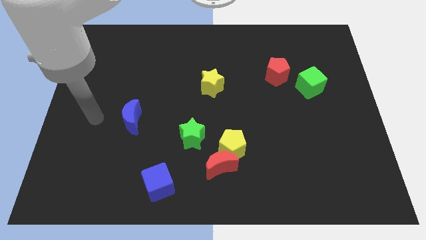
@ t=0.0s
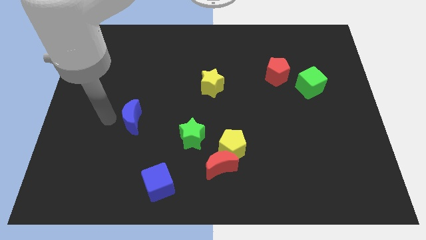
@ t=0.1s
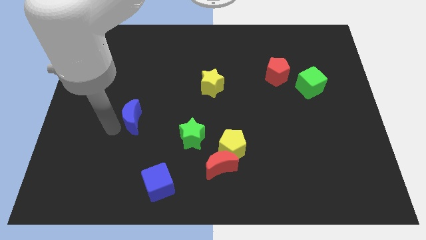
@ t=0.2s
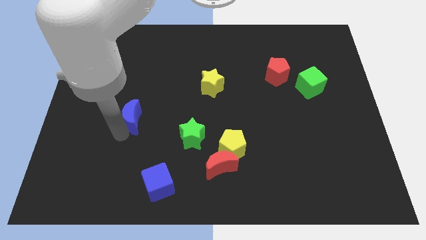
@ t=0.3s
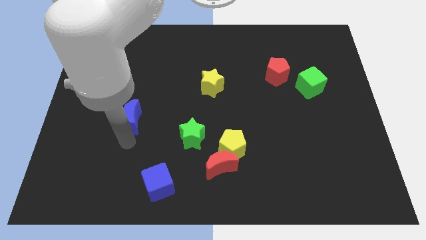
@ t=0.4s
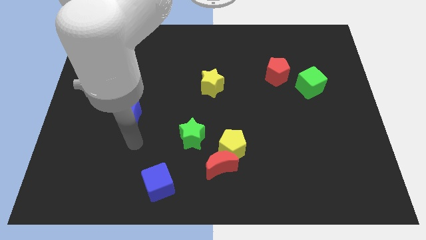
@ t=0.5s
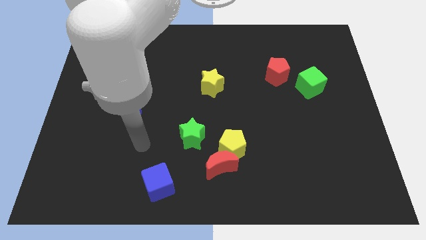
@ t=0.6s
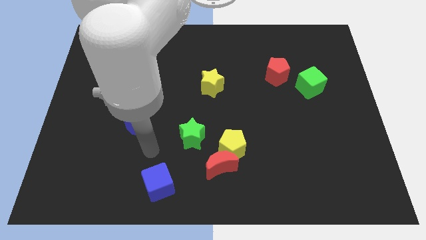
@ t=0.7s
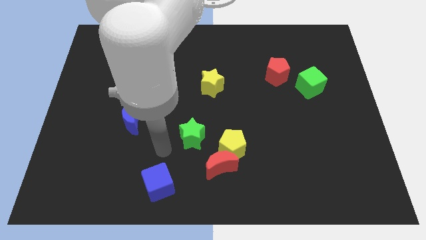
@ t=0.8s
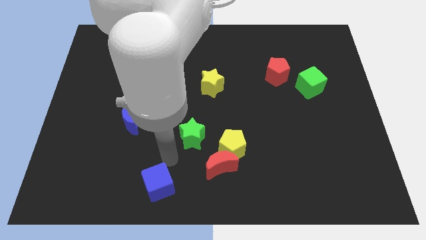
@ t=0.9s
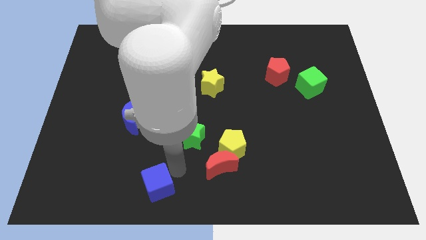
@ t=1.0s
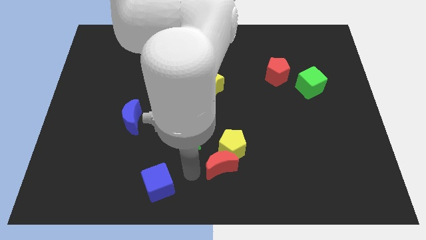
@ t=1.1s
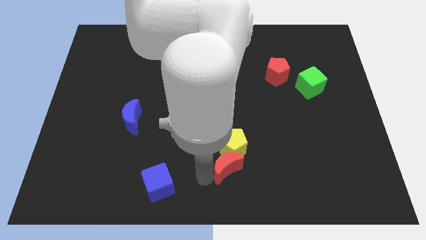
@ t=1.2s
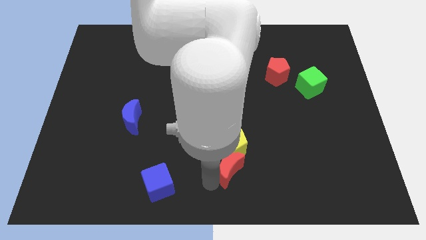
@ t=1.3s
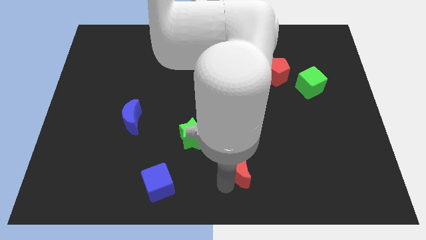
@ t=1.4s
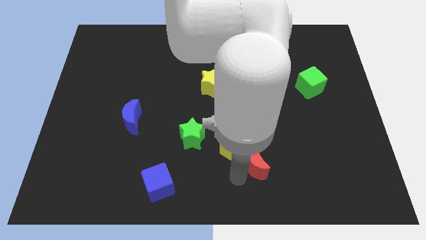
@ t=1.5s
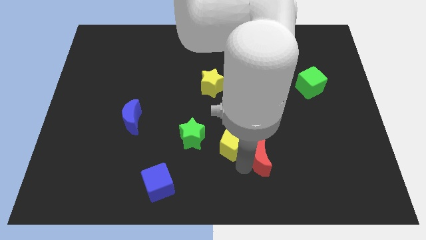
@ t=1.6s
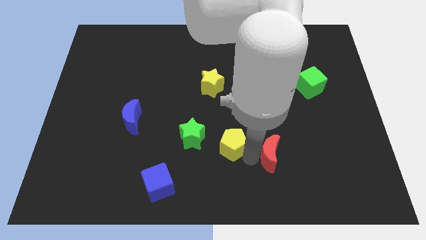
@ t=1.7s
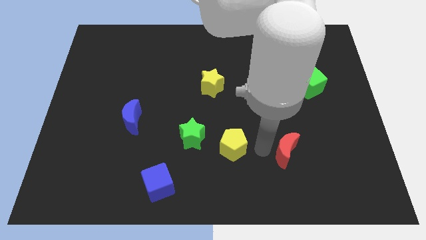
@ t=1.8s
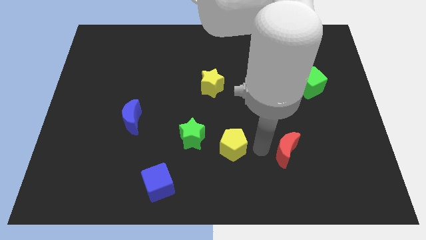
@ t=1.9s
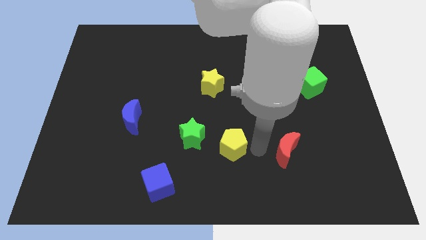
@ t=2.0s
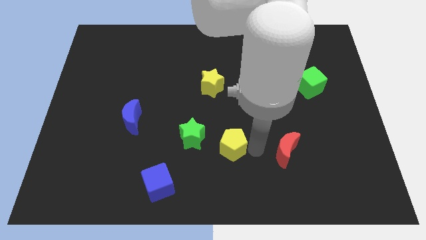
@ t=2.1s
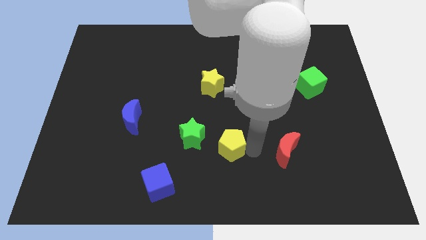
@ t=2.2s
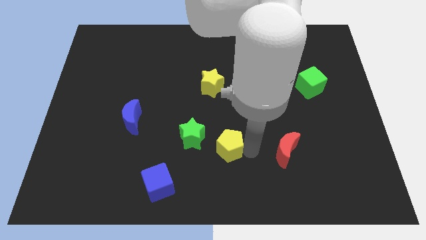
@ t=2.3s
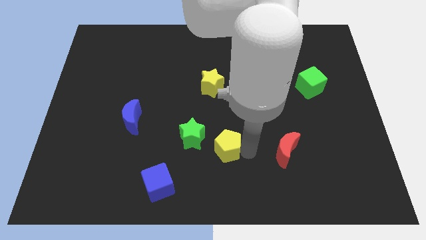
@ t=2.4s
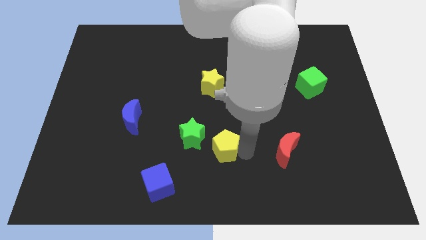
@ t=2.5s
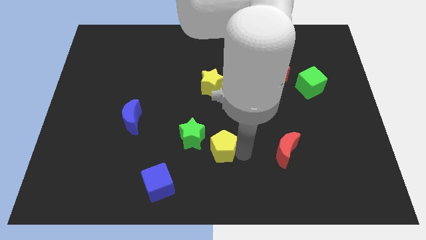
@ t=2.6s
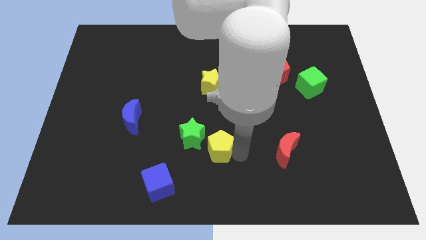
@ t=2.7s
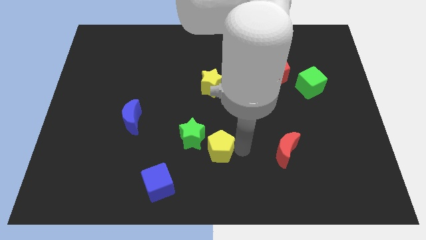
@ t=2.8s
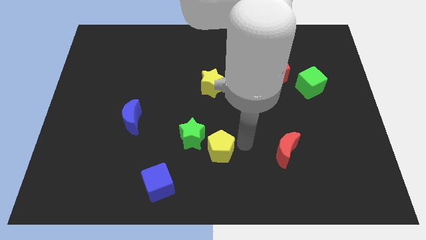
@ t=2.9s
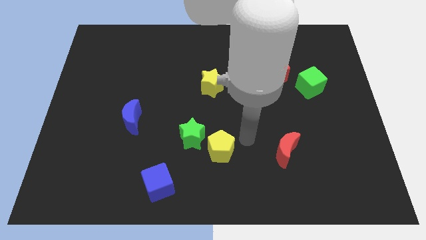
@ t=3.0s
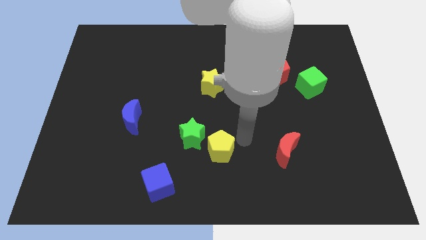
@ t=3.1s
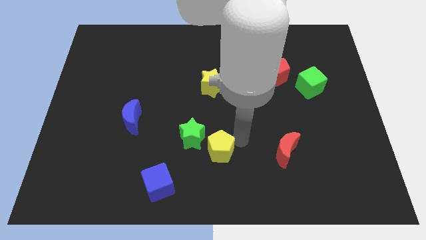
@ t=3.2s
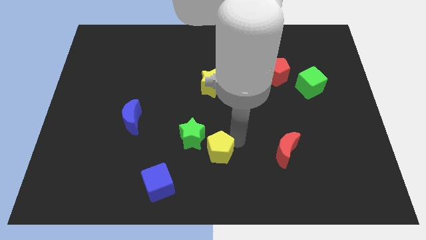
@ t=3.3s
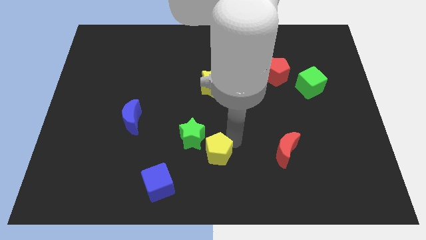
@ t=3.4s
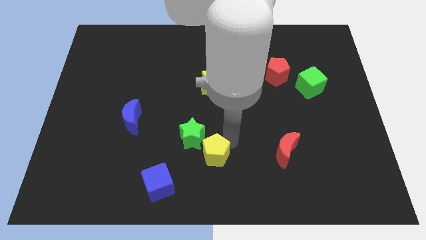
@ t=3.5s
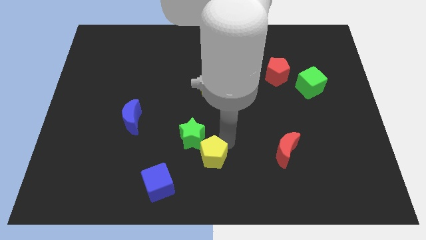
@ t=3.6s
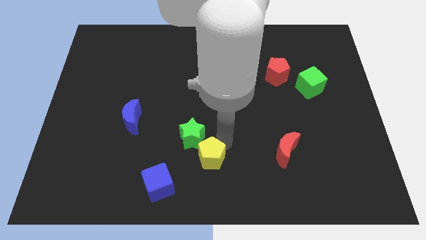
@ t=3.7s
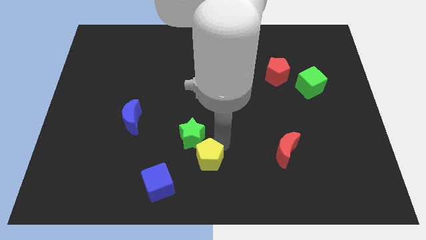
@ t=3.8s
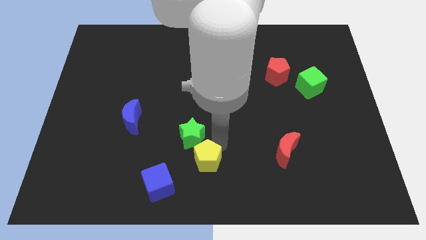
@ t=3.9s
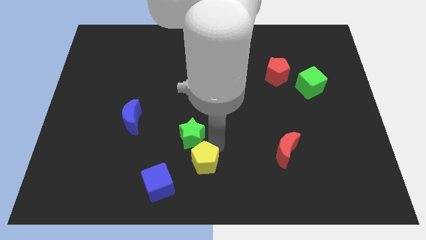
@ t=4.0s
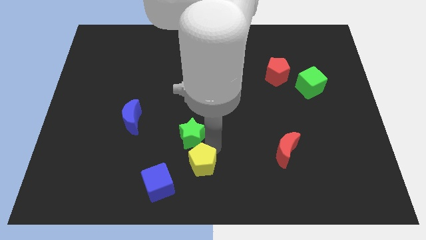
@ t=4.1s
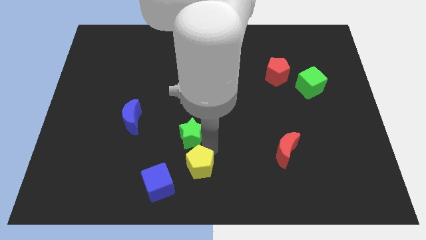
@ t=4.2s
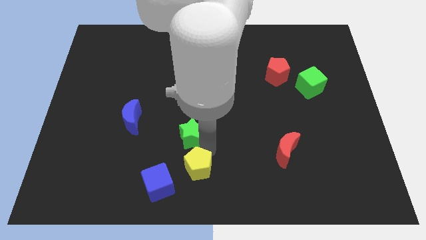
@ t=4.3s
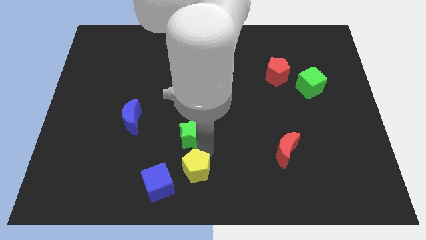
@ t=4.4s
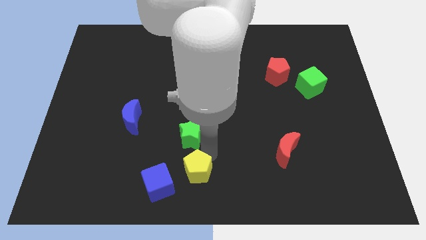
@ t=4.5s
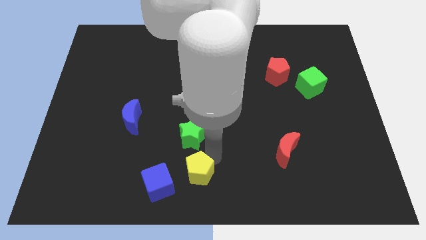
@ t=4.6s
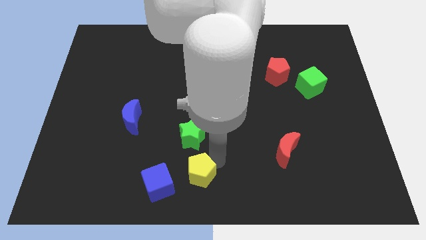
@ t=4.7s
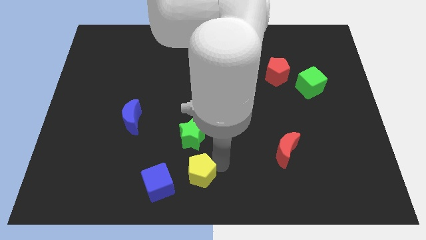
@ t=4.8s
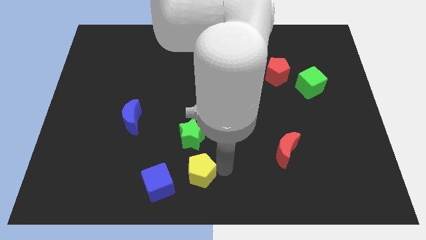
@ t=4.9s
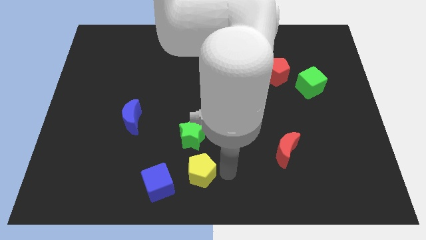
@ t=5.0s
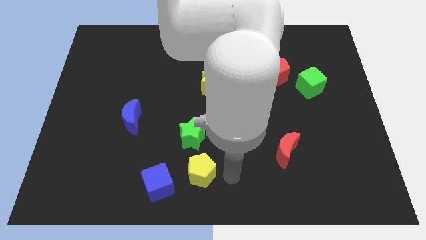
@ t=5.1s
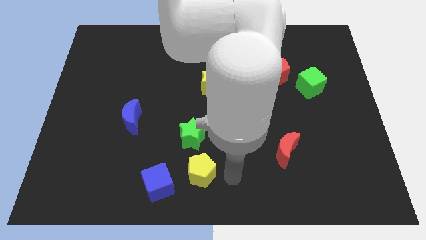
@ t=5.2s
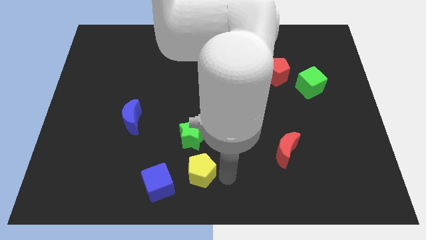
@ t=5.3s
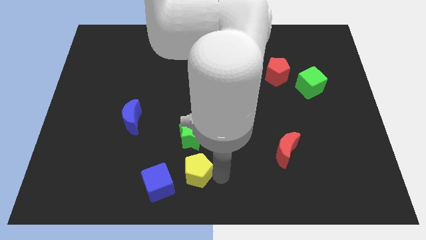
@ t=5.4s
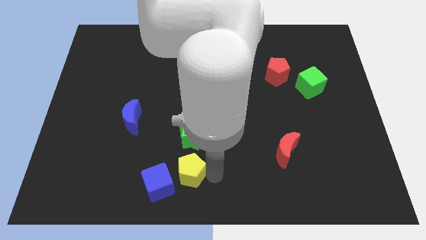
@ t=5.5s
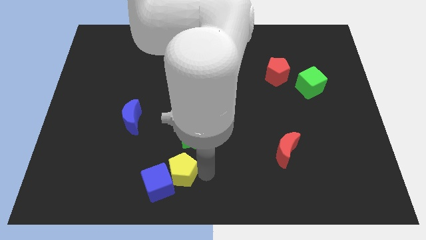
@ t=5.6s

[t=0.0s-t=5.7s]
push the yellow pentagon next to the blue cube

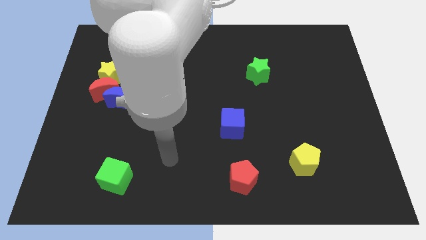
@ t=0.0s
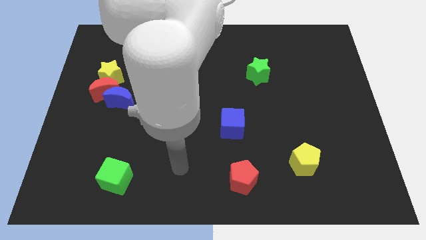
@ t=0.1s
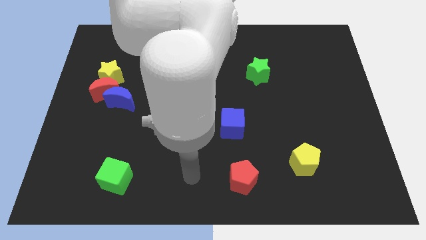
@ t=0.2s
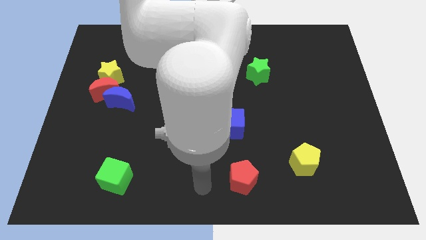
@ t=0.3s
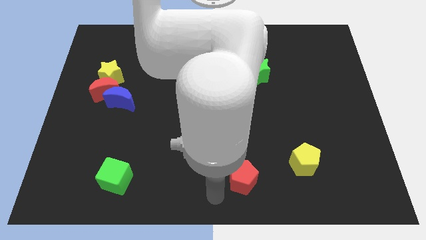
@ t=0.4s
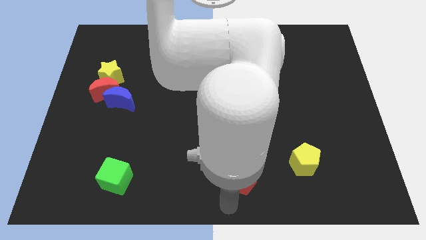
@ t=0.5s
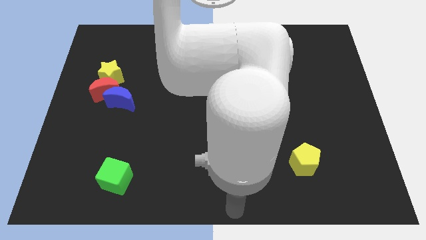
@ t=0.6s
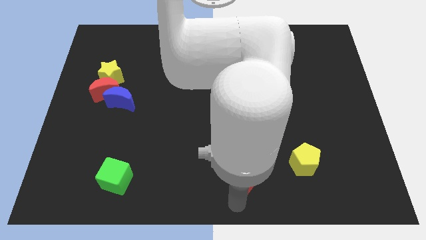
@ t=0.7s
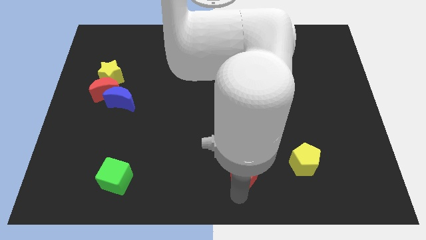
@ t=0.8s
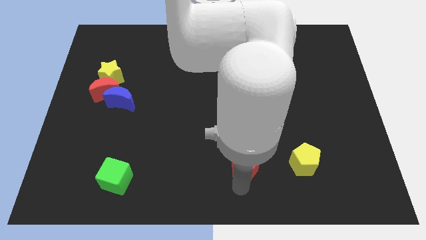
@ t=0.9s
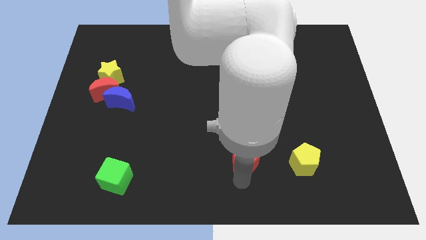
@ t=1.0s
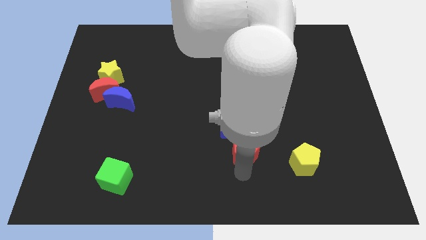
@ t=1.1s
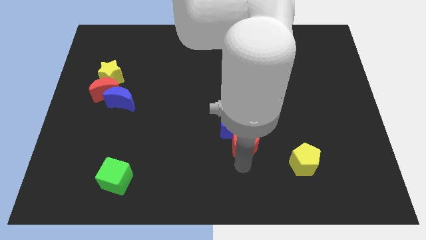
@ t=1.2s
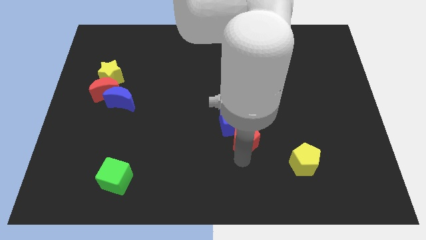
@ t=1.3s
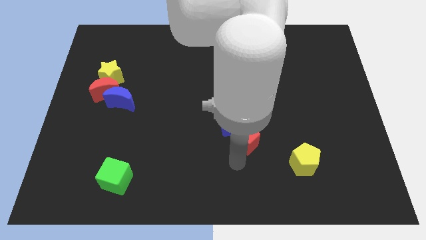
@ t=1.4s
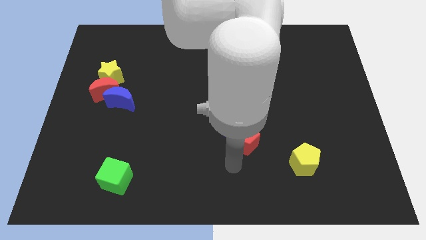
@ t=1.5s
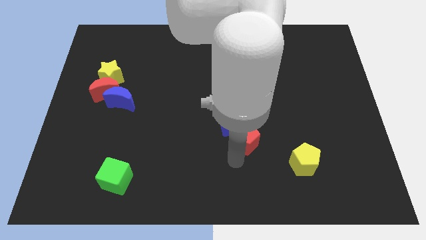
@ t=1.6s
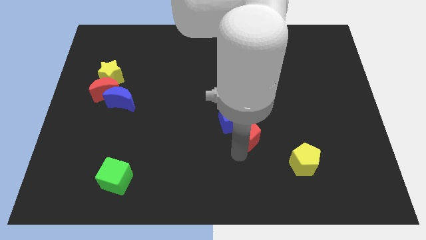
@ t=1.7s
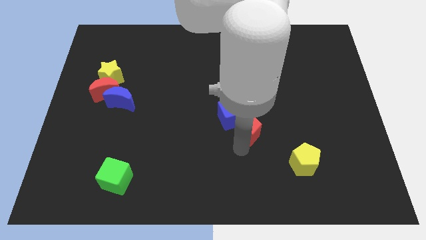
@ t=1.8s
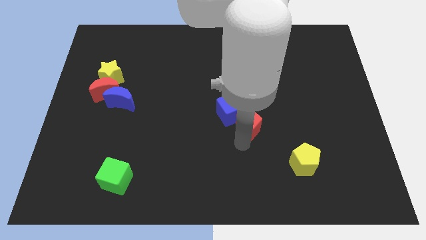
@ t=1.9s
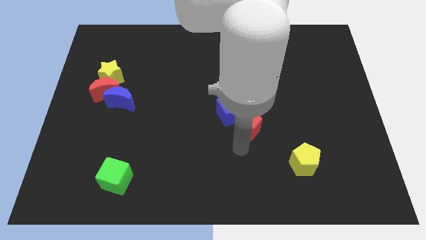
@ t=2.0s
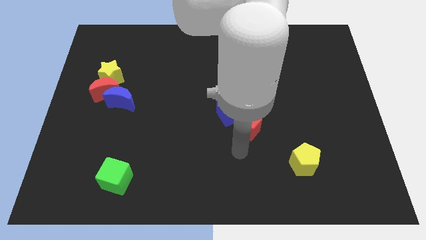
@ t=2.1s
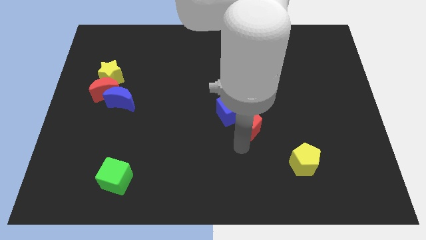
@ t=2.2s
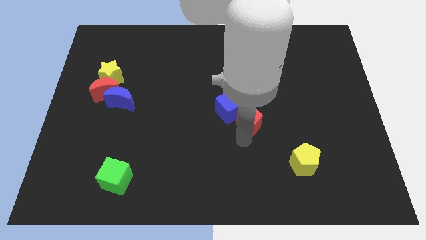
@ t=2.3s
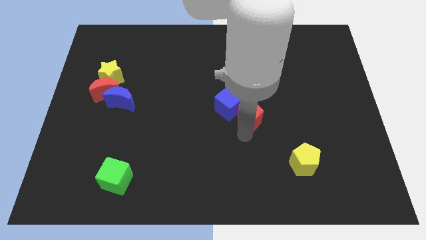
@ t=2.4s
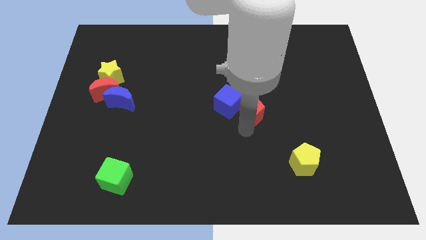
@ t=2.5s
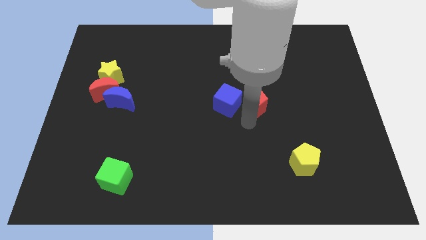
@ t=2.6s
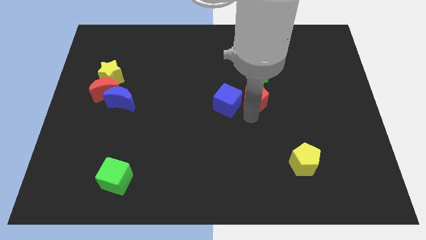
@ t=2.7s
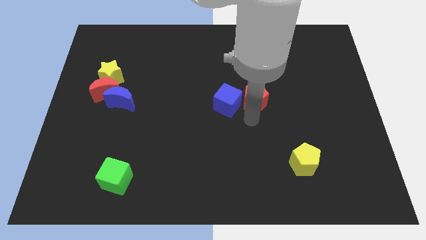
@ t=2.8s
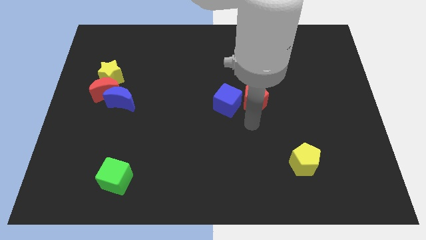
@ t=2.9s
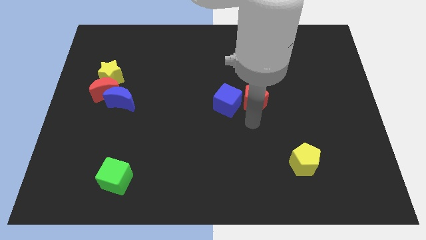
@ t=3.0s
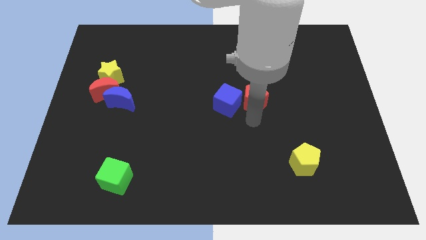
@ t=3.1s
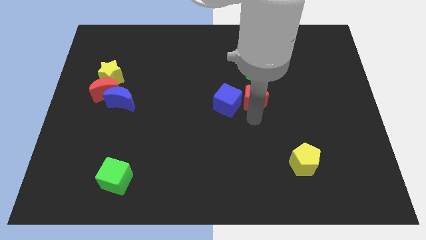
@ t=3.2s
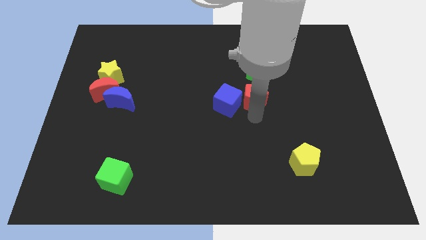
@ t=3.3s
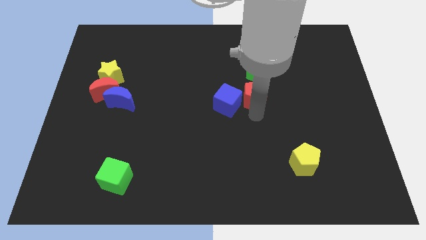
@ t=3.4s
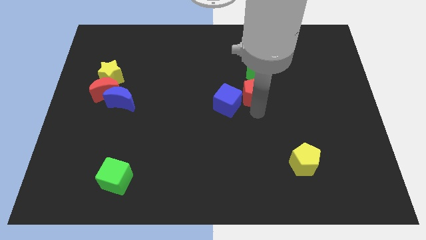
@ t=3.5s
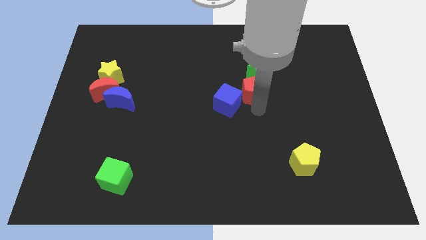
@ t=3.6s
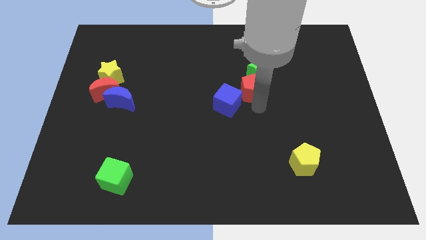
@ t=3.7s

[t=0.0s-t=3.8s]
push the red pentagon next to the green star
